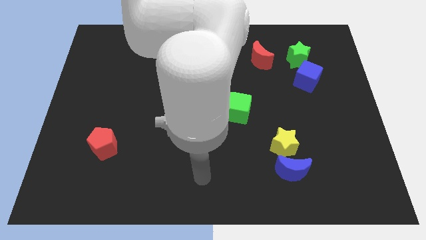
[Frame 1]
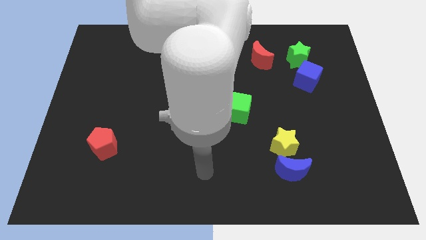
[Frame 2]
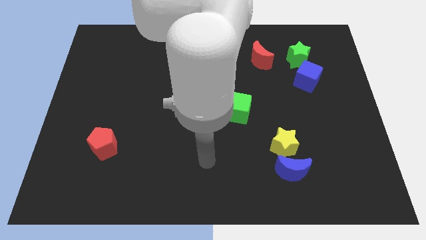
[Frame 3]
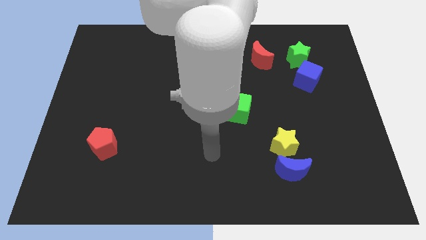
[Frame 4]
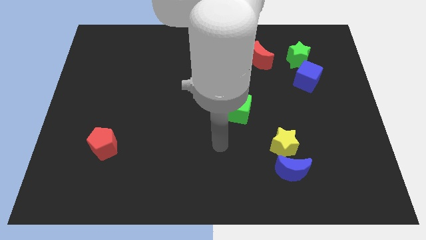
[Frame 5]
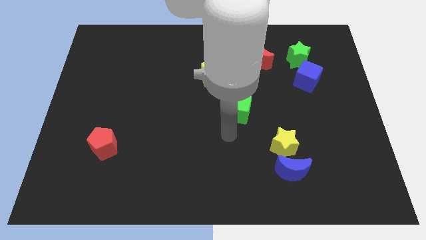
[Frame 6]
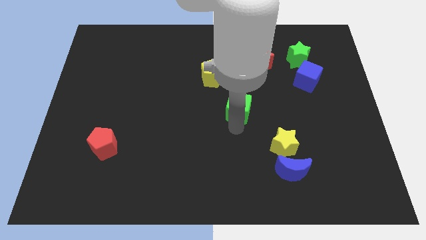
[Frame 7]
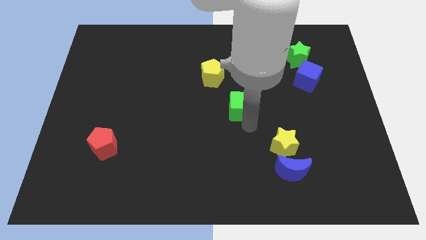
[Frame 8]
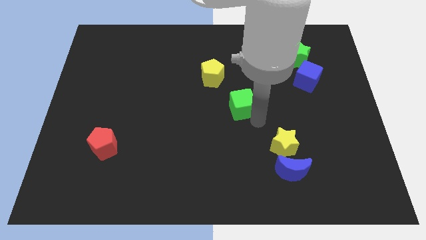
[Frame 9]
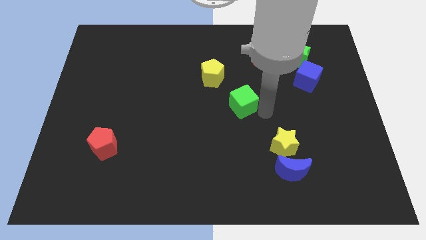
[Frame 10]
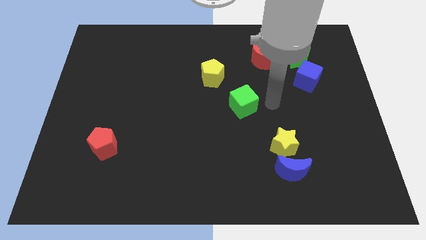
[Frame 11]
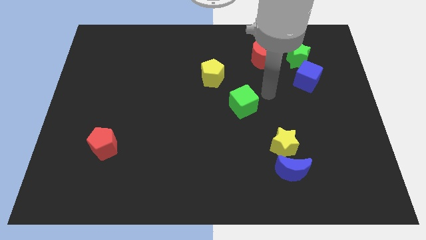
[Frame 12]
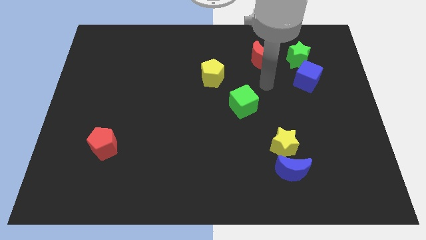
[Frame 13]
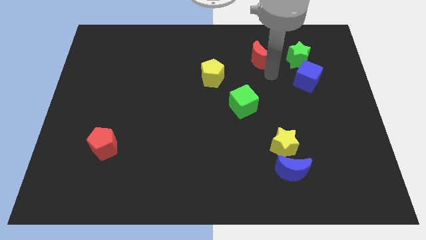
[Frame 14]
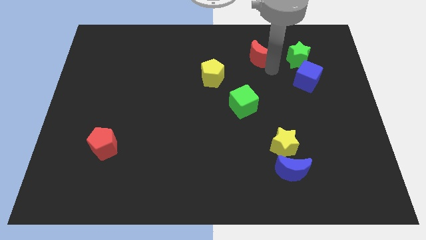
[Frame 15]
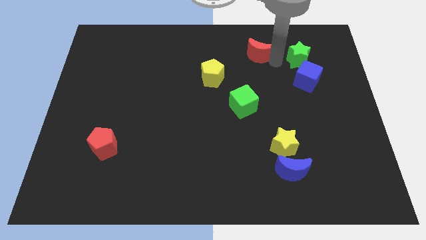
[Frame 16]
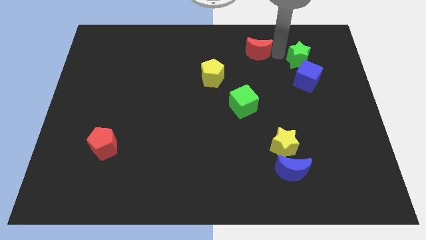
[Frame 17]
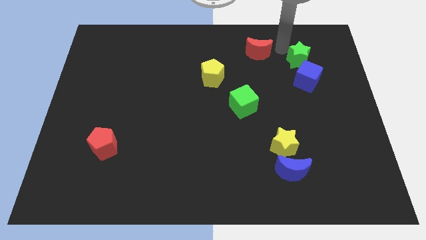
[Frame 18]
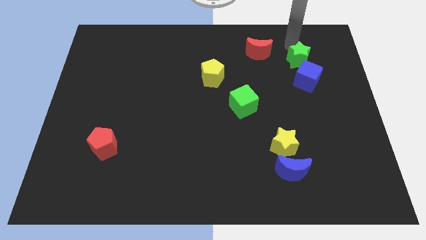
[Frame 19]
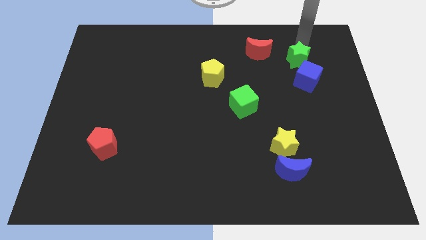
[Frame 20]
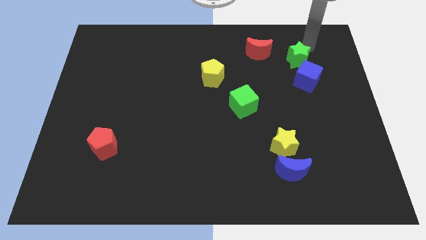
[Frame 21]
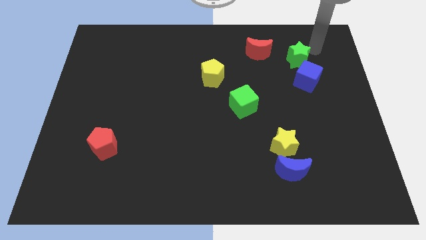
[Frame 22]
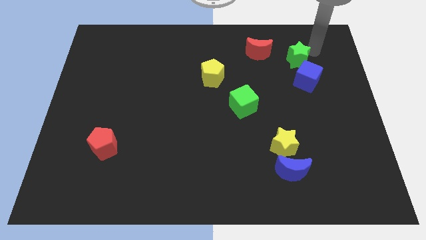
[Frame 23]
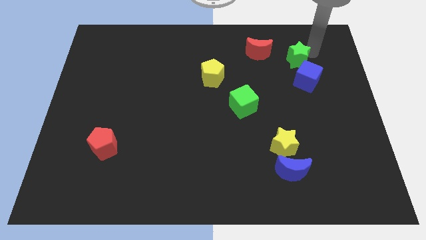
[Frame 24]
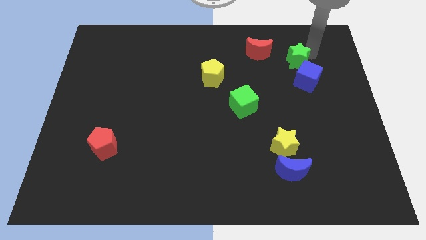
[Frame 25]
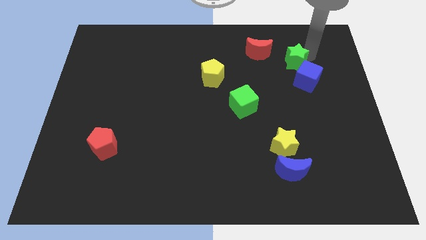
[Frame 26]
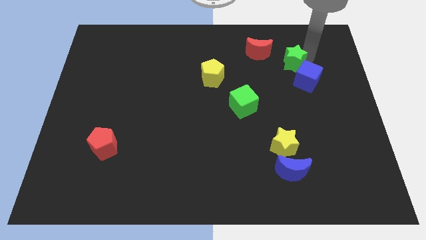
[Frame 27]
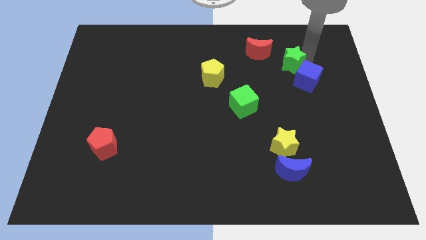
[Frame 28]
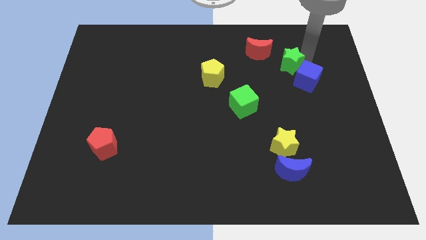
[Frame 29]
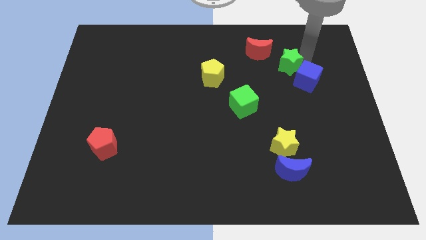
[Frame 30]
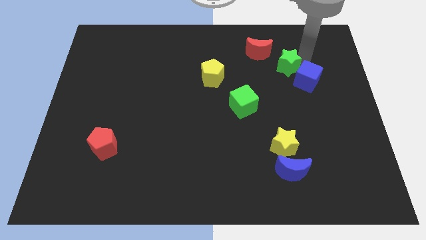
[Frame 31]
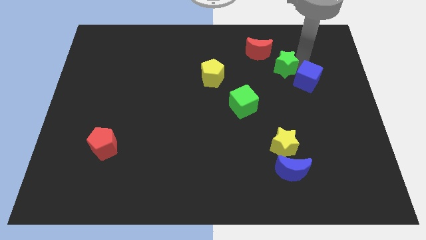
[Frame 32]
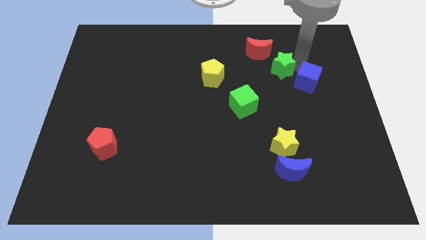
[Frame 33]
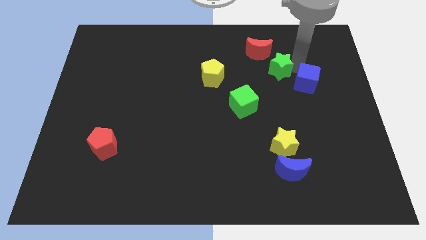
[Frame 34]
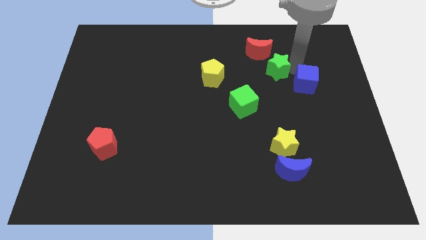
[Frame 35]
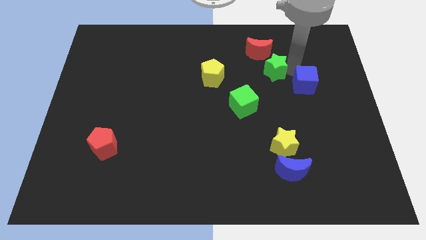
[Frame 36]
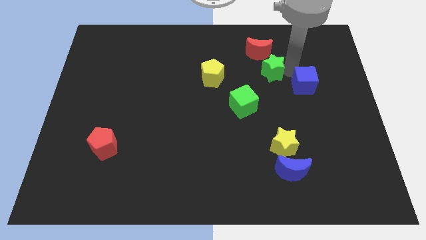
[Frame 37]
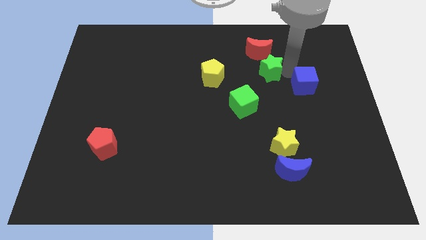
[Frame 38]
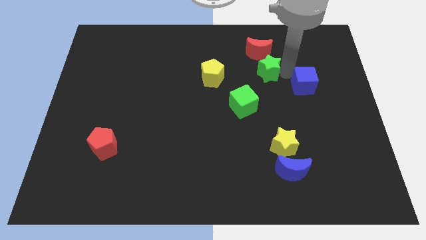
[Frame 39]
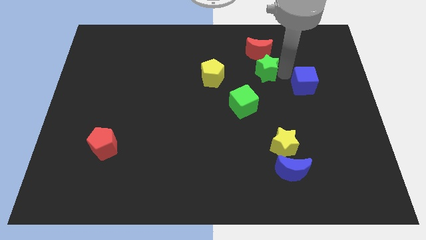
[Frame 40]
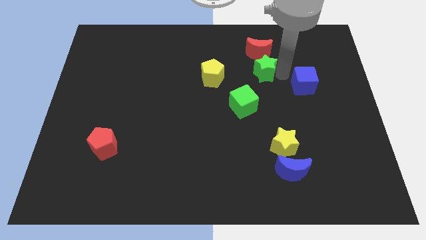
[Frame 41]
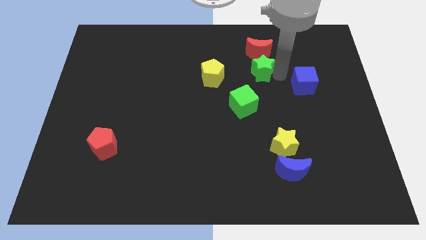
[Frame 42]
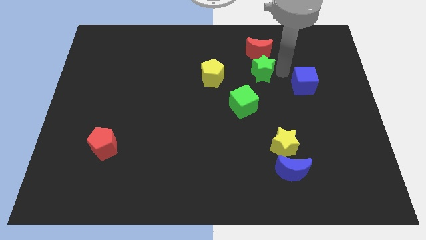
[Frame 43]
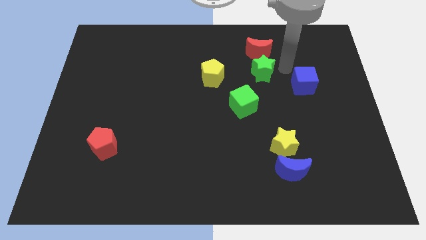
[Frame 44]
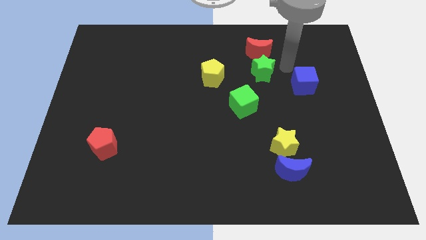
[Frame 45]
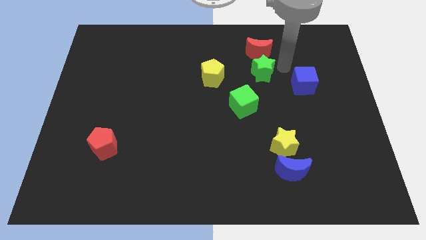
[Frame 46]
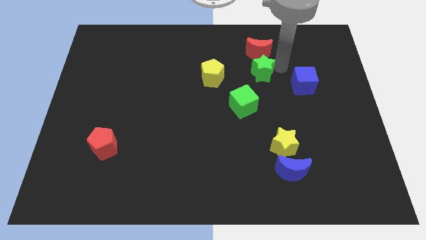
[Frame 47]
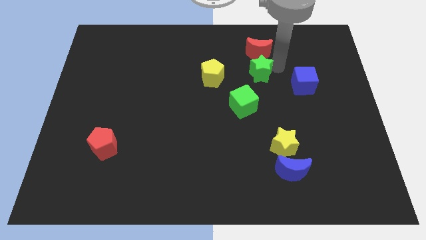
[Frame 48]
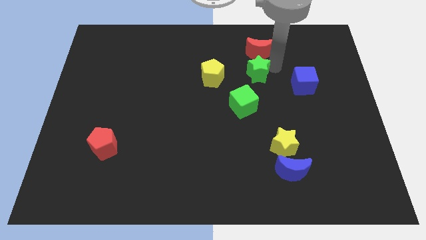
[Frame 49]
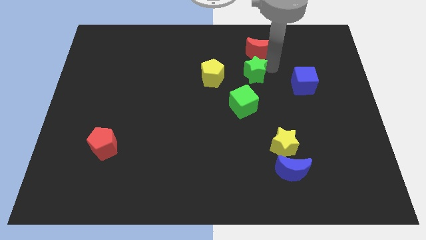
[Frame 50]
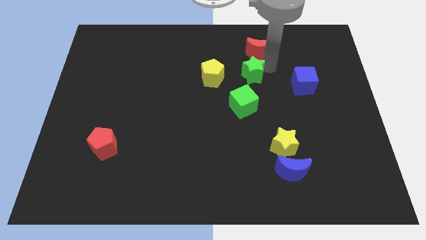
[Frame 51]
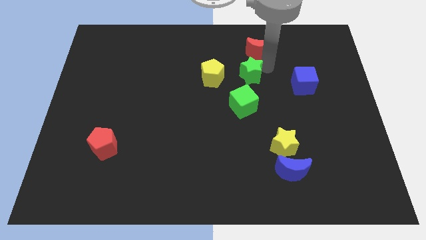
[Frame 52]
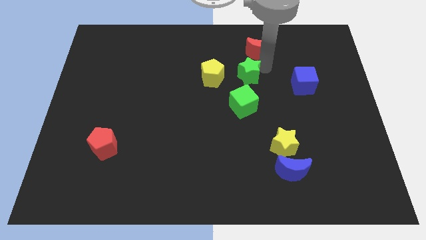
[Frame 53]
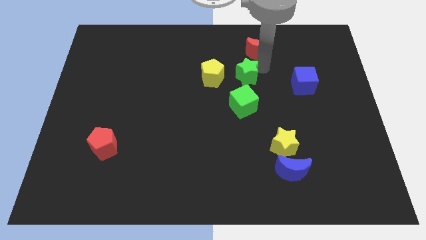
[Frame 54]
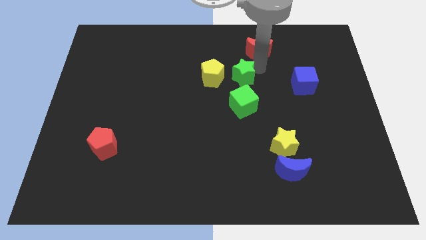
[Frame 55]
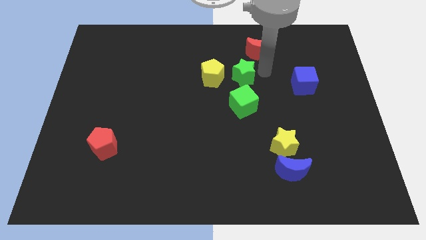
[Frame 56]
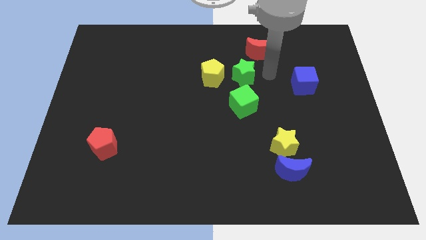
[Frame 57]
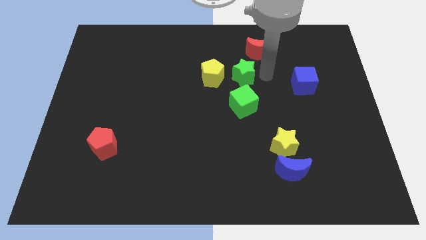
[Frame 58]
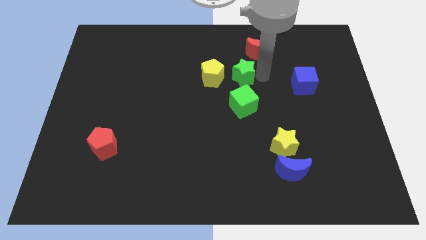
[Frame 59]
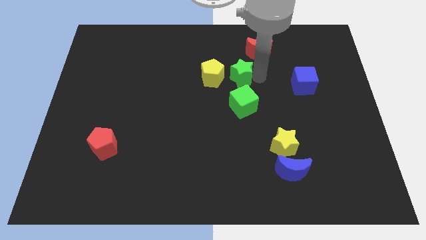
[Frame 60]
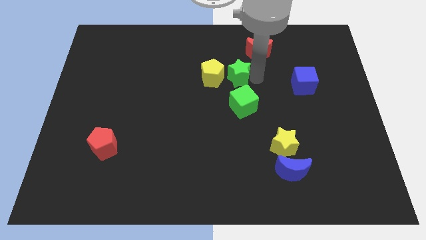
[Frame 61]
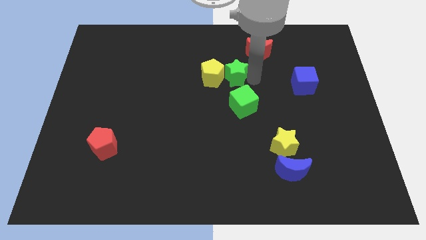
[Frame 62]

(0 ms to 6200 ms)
slide the green star towards the yellow pentagon

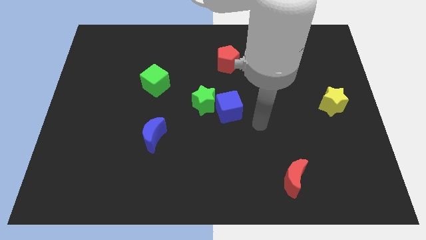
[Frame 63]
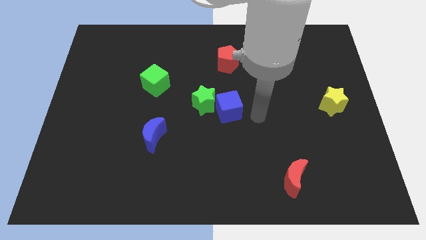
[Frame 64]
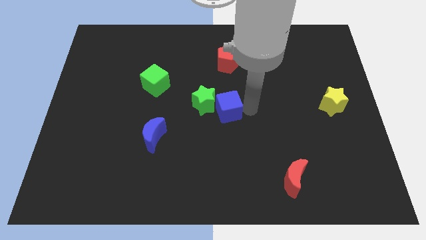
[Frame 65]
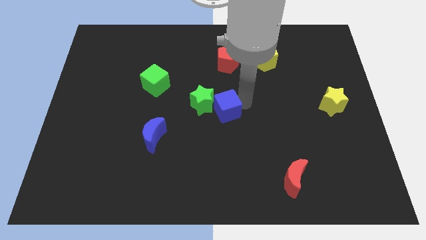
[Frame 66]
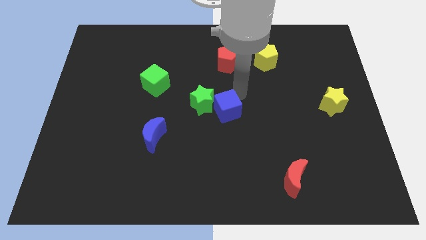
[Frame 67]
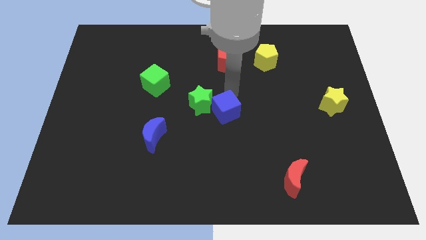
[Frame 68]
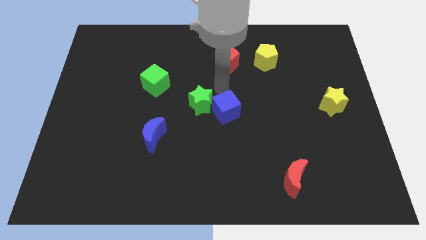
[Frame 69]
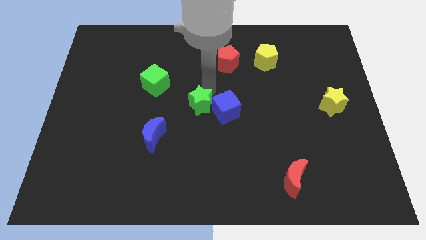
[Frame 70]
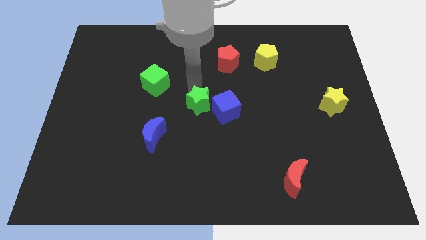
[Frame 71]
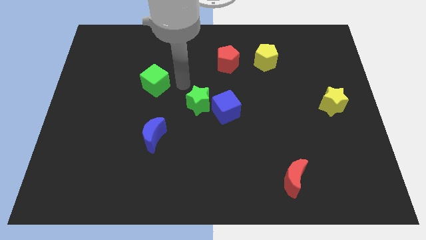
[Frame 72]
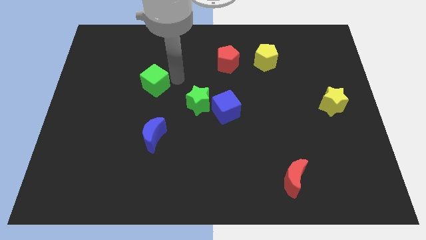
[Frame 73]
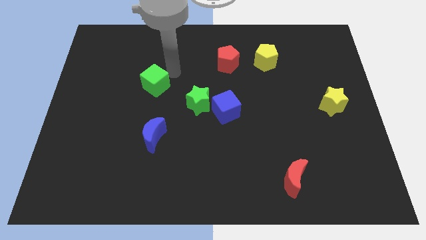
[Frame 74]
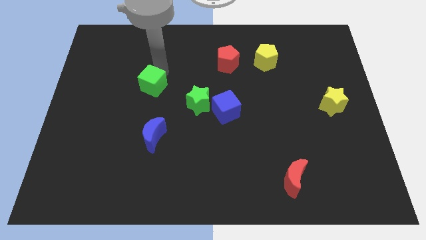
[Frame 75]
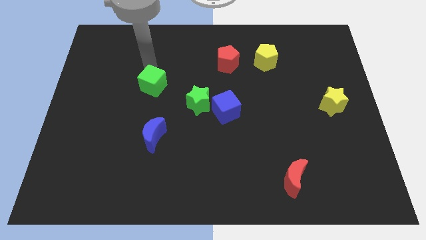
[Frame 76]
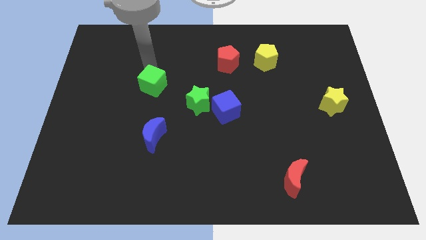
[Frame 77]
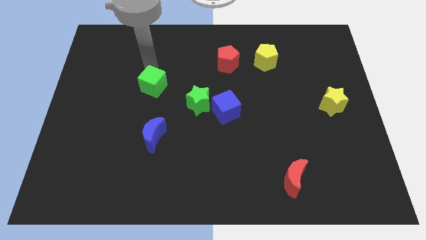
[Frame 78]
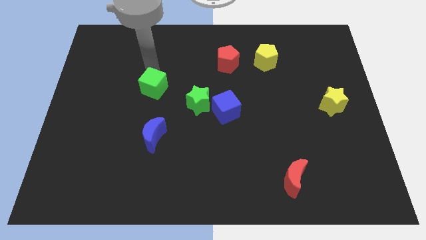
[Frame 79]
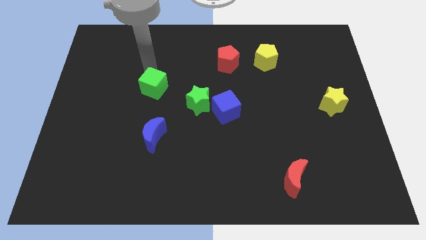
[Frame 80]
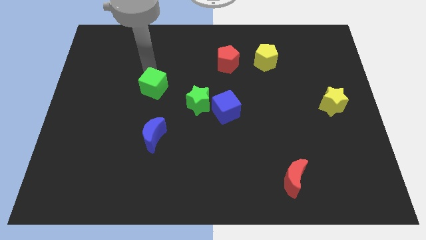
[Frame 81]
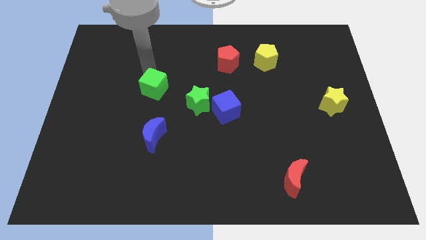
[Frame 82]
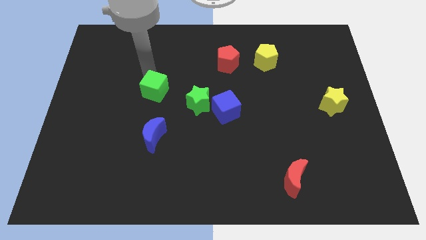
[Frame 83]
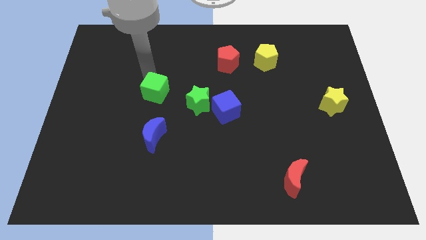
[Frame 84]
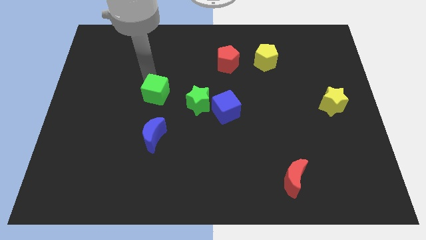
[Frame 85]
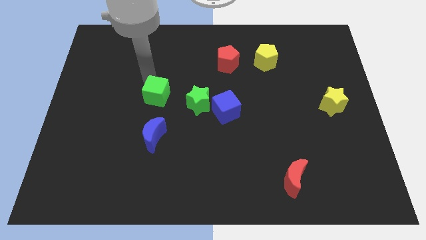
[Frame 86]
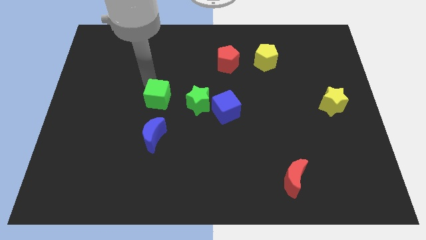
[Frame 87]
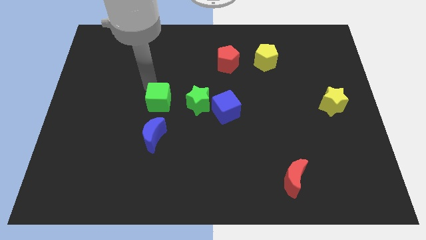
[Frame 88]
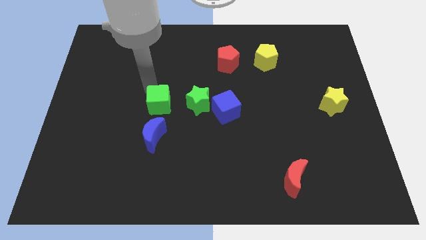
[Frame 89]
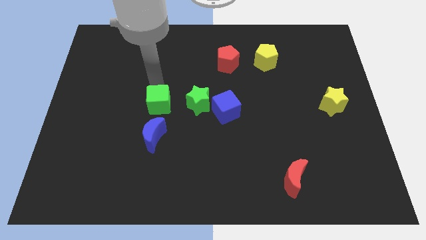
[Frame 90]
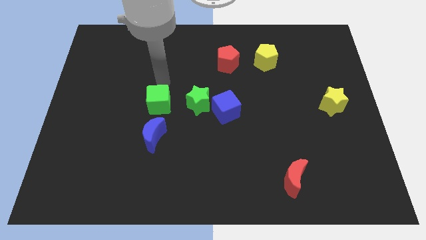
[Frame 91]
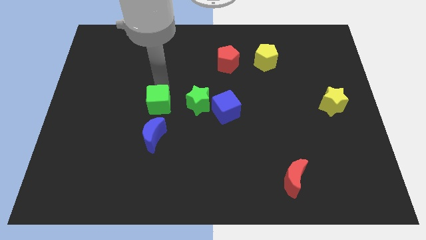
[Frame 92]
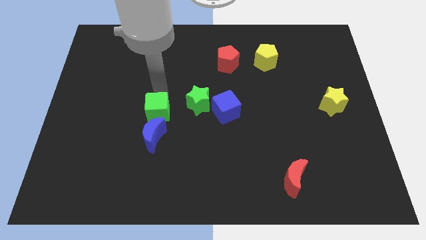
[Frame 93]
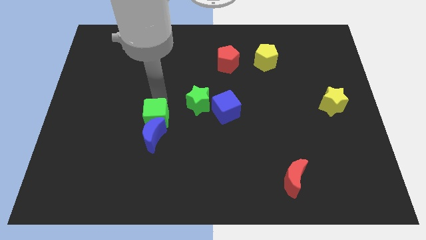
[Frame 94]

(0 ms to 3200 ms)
push the green cube towards the blue moon
